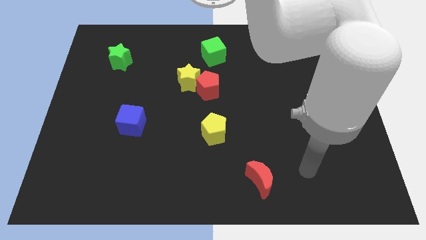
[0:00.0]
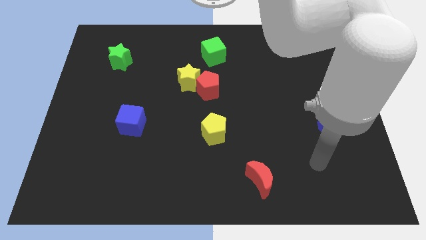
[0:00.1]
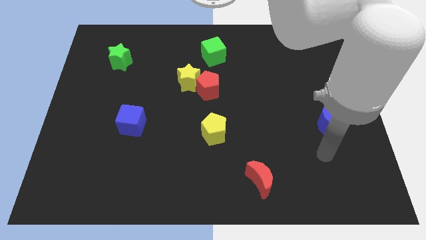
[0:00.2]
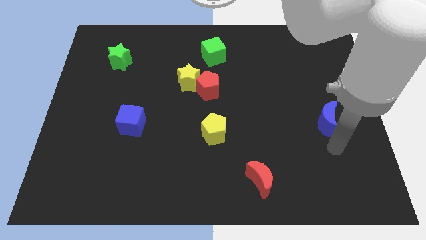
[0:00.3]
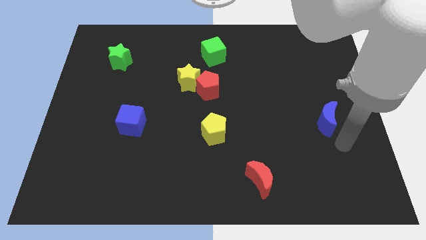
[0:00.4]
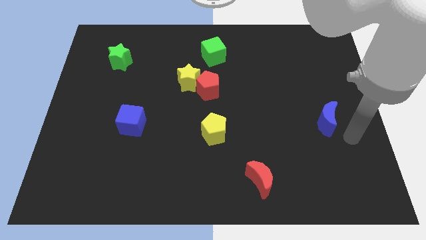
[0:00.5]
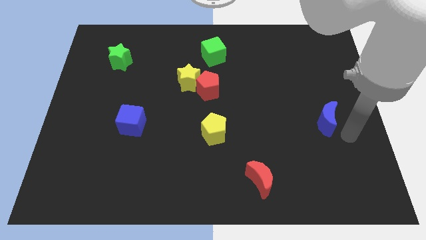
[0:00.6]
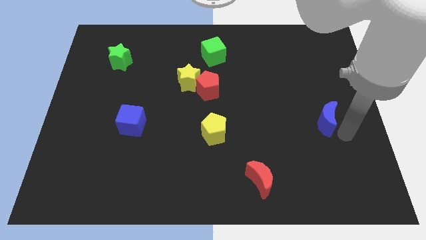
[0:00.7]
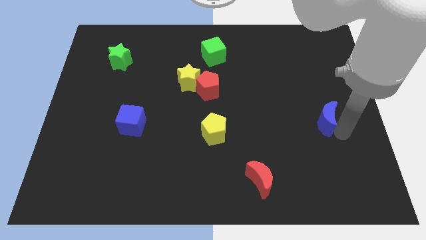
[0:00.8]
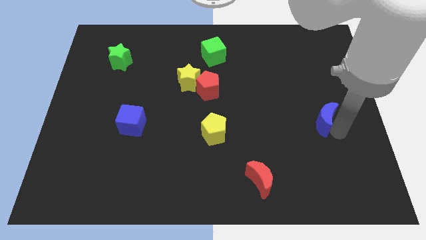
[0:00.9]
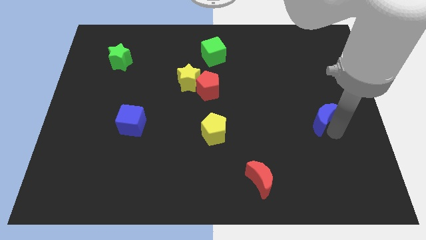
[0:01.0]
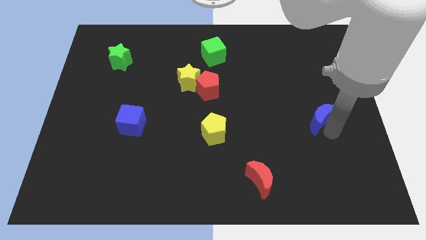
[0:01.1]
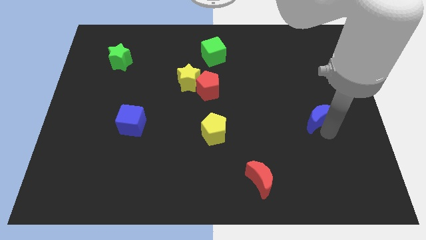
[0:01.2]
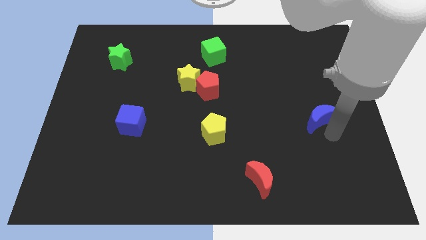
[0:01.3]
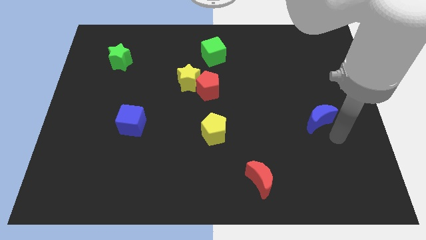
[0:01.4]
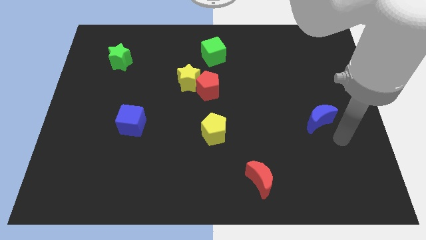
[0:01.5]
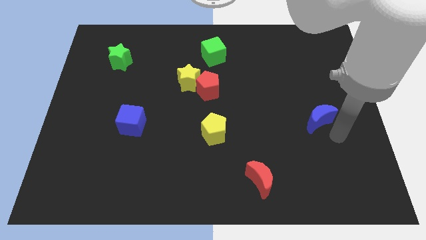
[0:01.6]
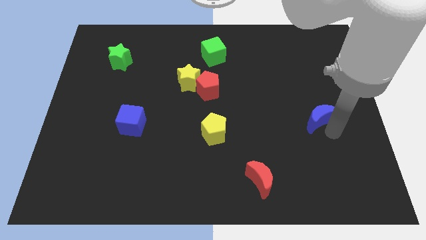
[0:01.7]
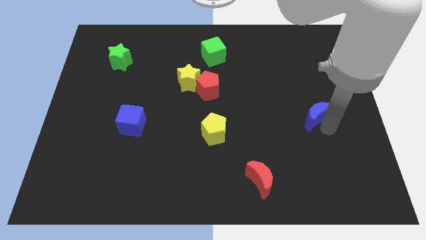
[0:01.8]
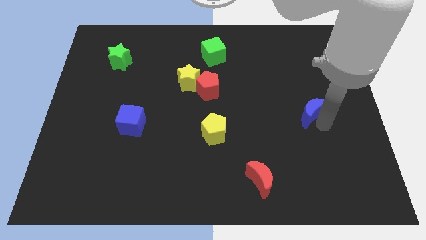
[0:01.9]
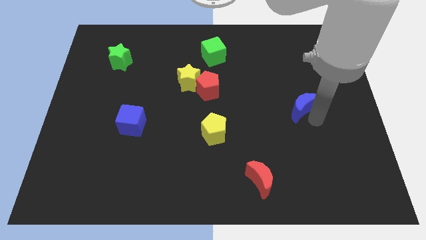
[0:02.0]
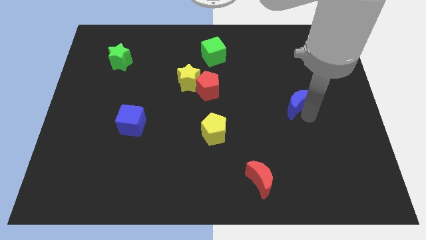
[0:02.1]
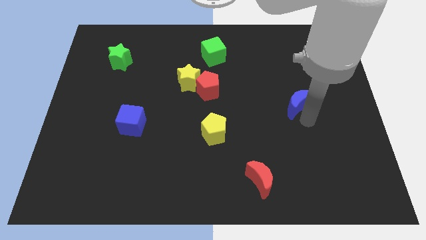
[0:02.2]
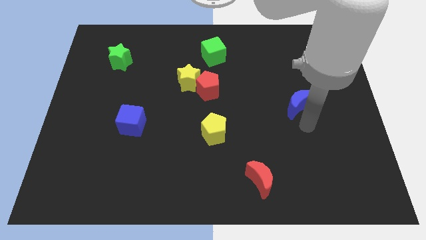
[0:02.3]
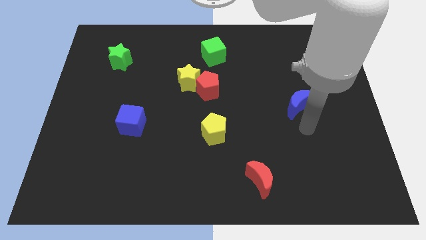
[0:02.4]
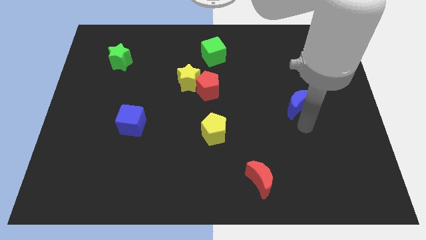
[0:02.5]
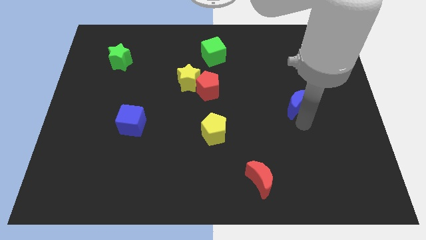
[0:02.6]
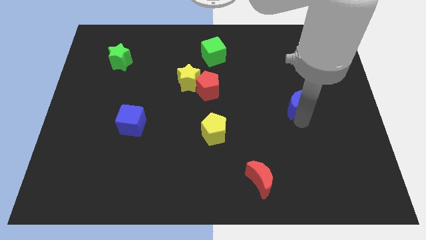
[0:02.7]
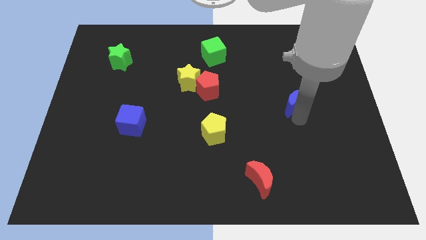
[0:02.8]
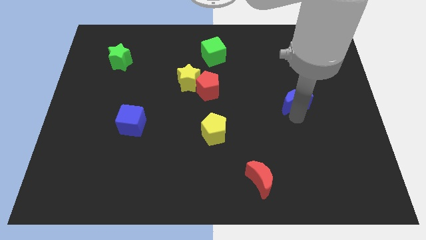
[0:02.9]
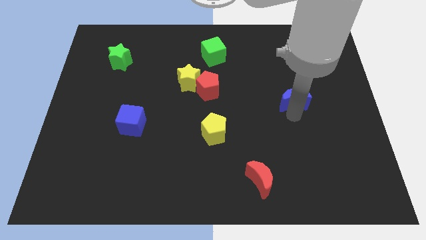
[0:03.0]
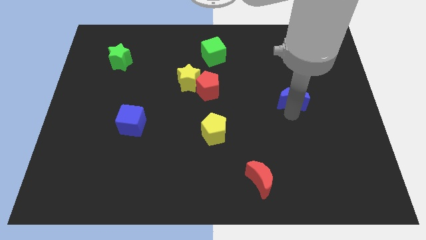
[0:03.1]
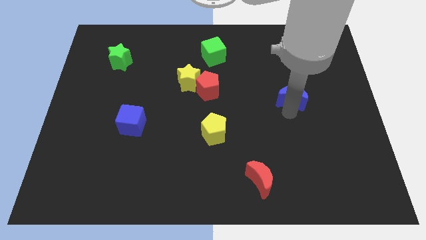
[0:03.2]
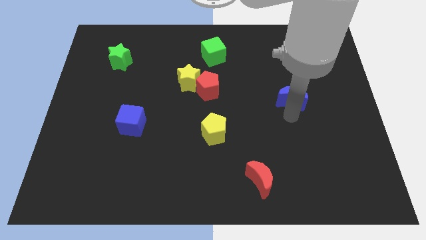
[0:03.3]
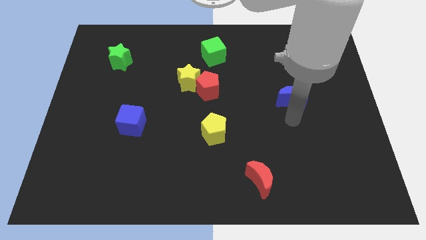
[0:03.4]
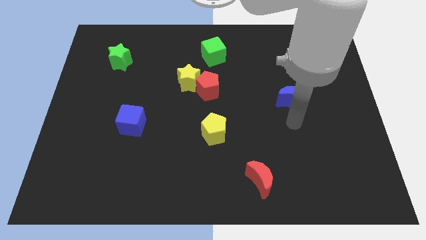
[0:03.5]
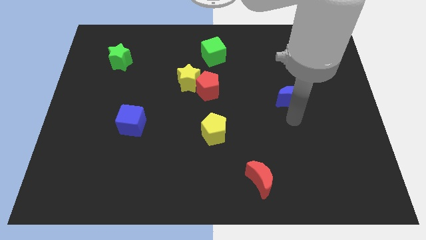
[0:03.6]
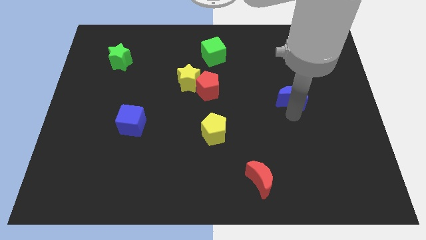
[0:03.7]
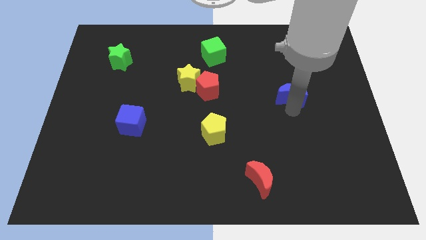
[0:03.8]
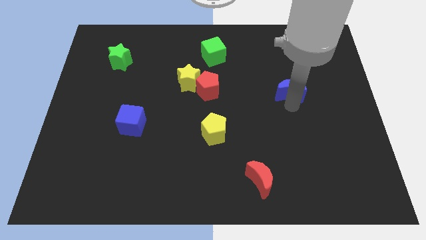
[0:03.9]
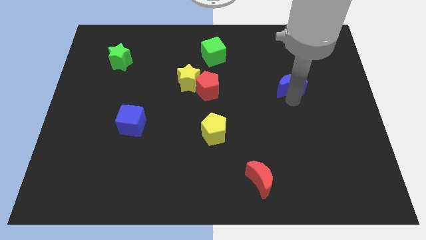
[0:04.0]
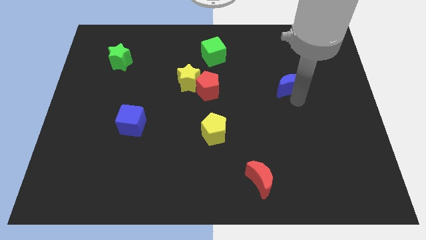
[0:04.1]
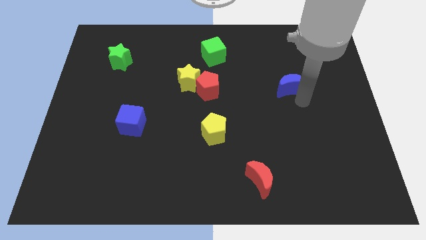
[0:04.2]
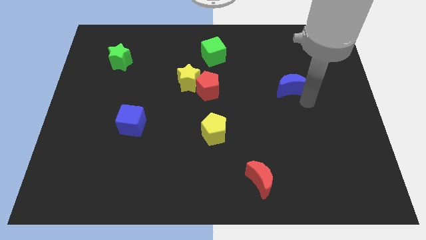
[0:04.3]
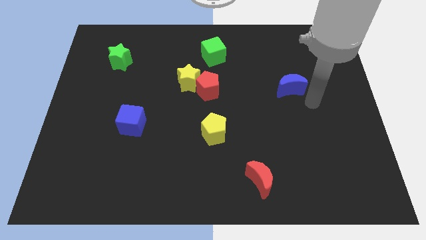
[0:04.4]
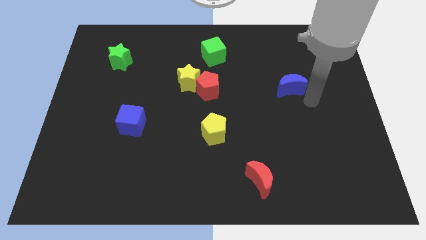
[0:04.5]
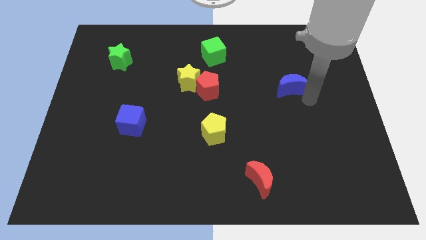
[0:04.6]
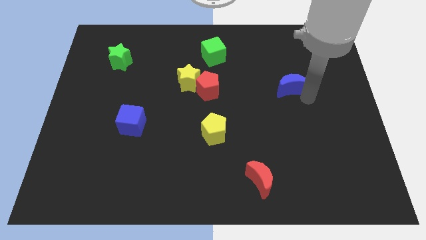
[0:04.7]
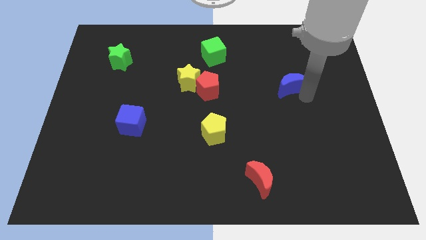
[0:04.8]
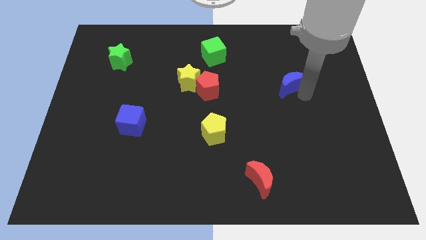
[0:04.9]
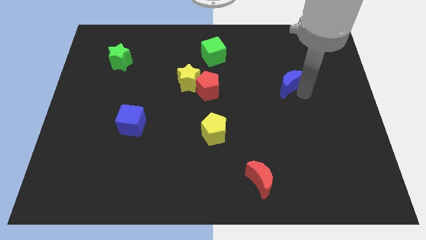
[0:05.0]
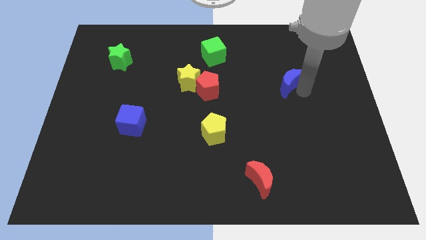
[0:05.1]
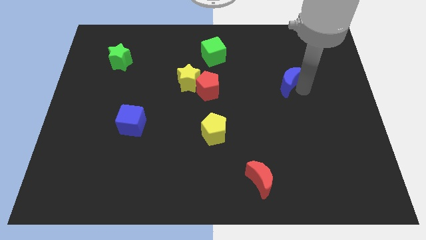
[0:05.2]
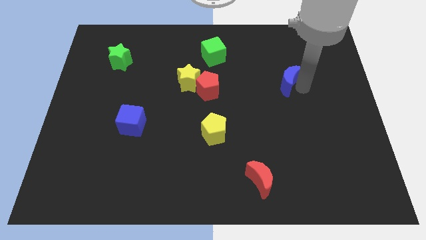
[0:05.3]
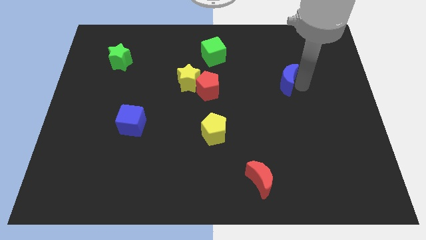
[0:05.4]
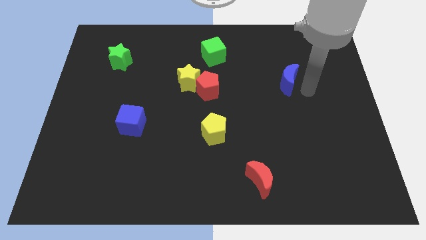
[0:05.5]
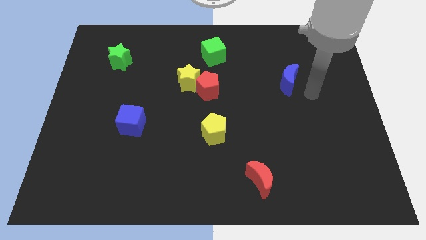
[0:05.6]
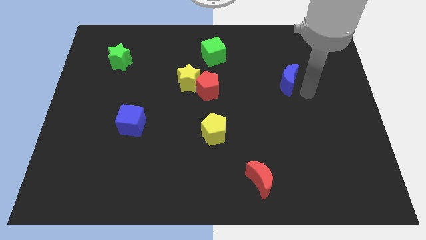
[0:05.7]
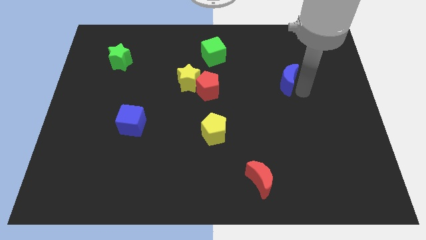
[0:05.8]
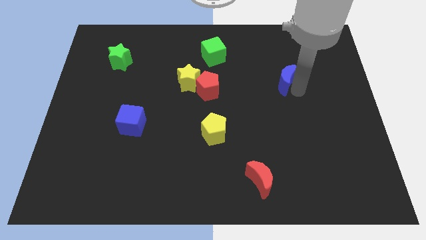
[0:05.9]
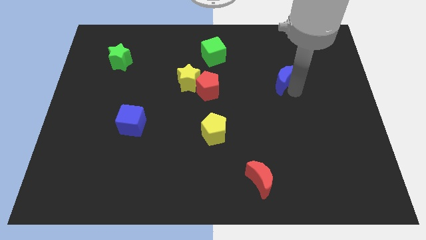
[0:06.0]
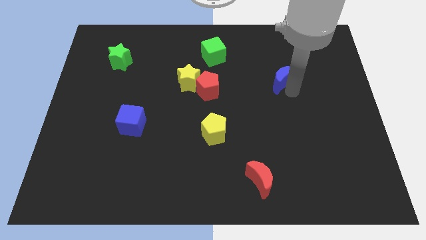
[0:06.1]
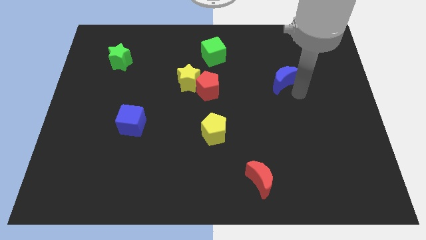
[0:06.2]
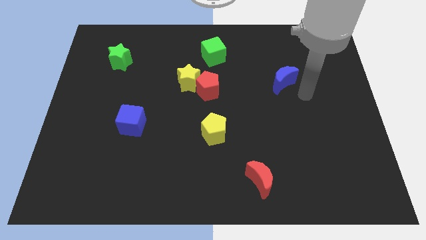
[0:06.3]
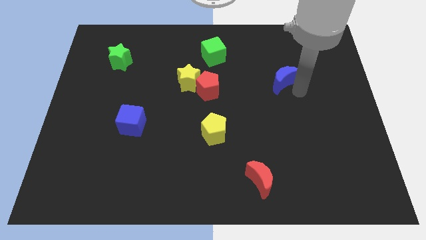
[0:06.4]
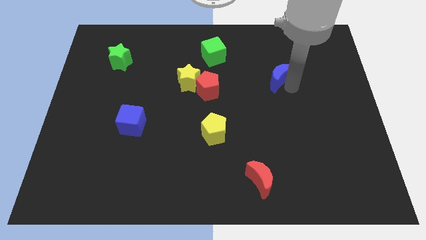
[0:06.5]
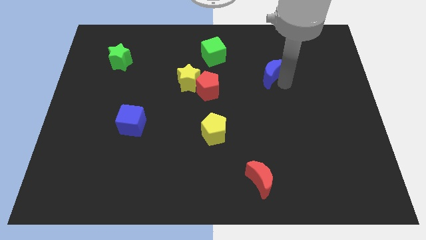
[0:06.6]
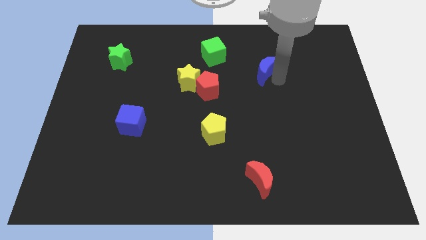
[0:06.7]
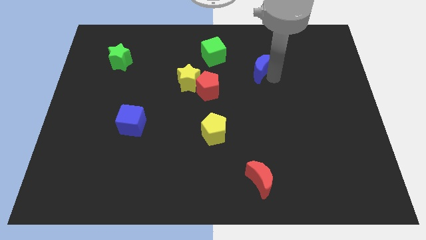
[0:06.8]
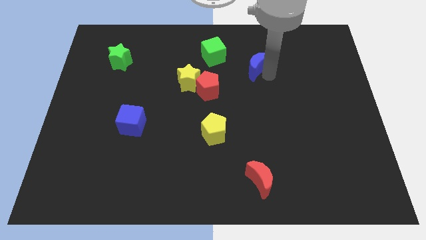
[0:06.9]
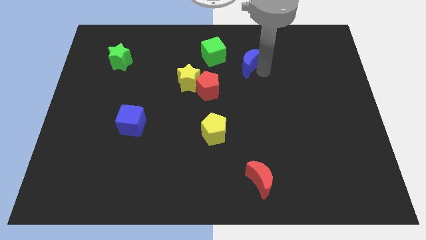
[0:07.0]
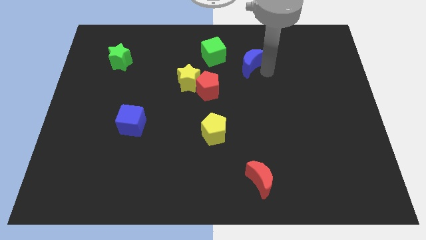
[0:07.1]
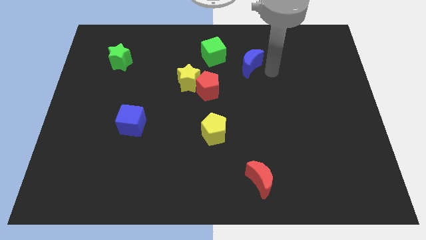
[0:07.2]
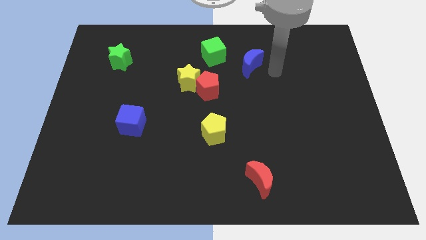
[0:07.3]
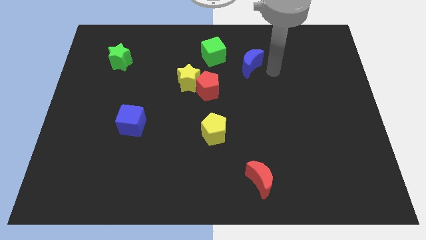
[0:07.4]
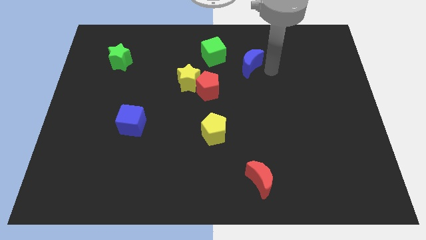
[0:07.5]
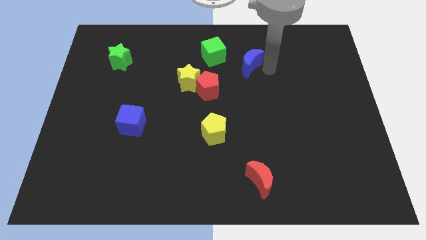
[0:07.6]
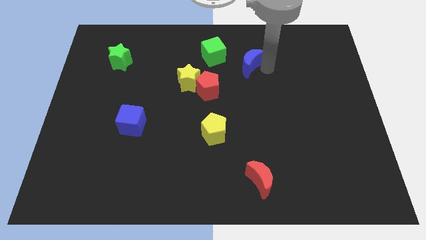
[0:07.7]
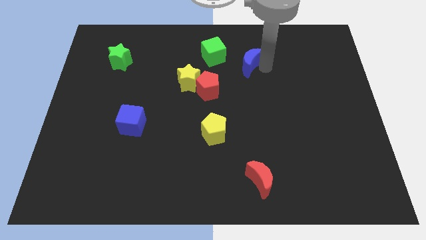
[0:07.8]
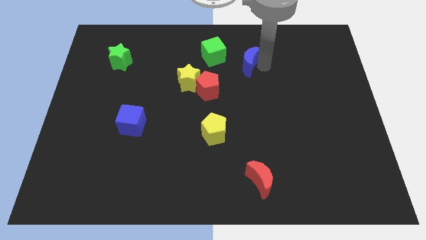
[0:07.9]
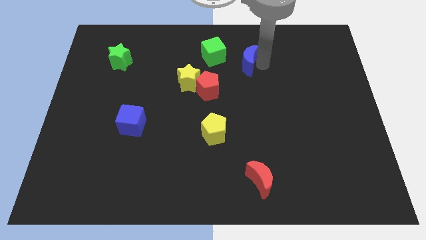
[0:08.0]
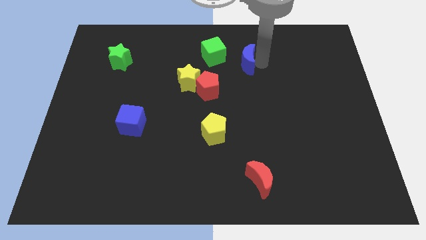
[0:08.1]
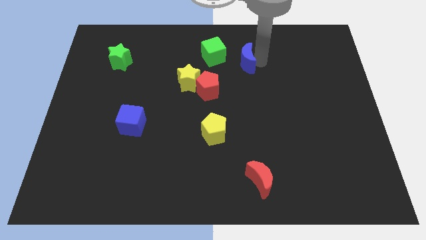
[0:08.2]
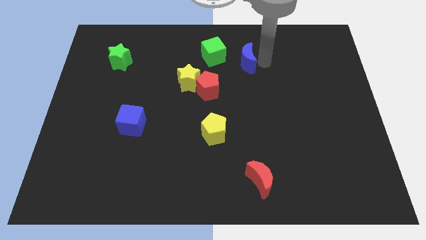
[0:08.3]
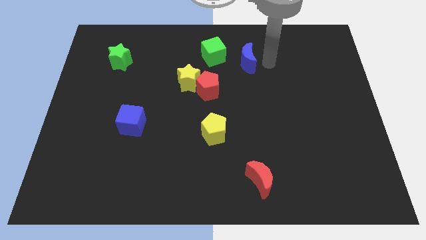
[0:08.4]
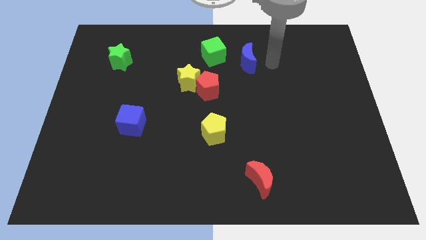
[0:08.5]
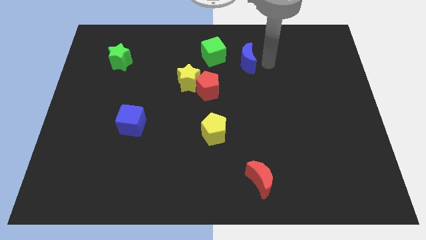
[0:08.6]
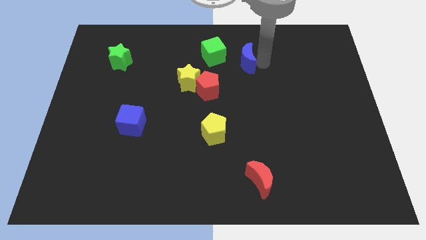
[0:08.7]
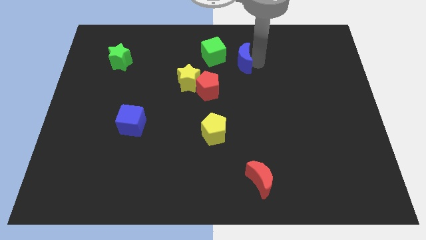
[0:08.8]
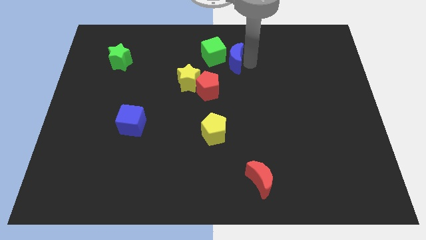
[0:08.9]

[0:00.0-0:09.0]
put the blue moon towards the green cube
